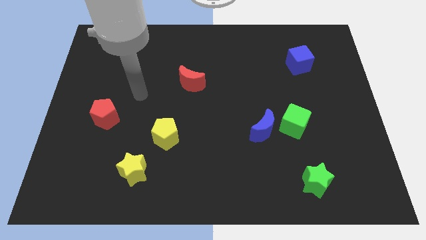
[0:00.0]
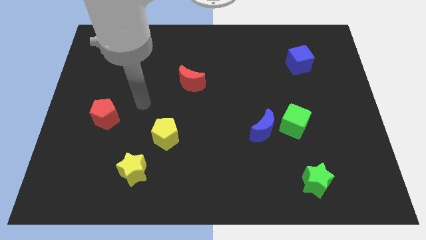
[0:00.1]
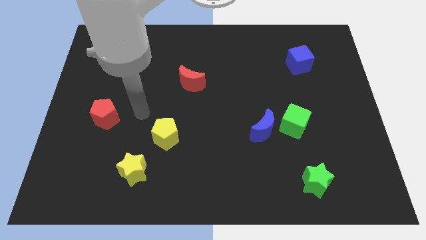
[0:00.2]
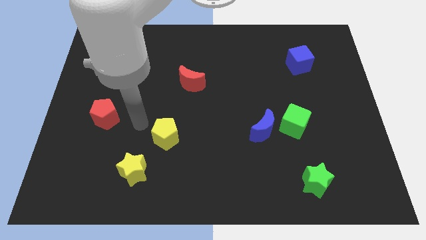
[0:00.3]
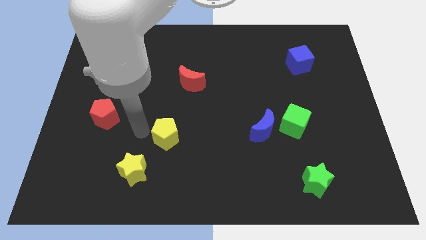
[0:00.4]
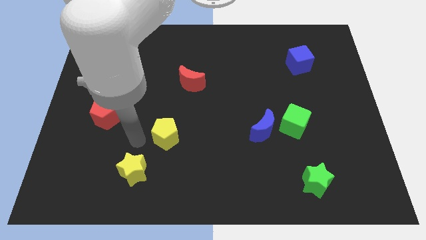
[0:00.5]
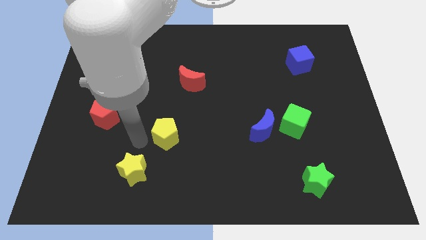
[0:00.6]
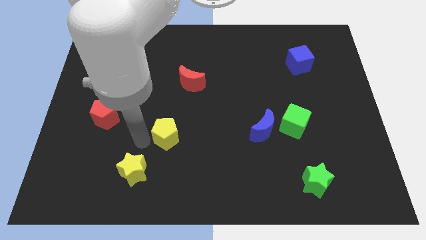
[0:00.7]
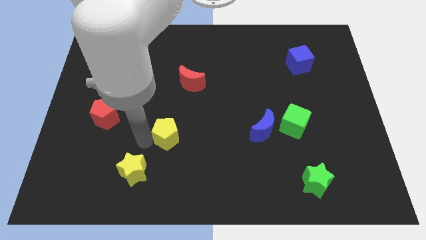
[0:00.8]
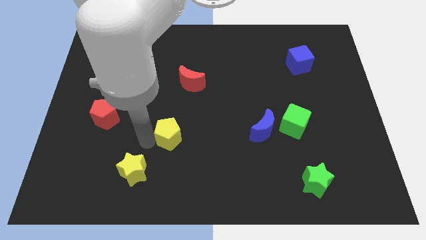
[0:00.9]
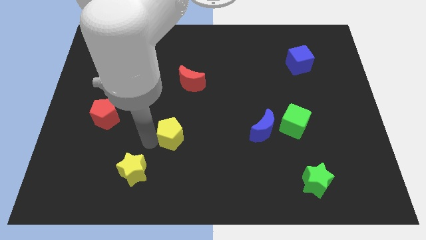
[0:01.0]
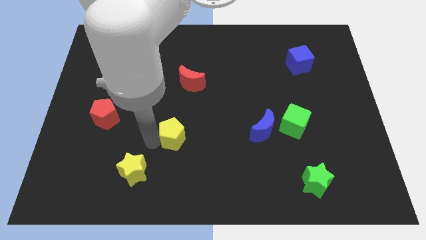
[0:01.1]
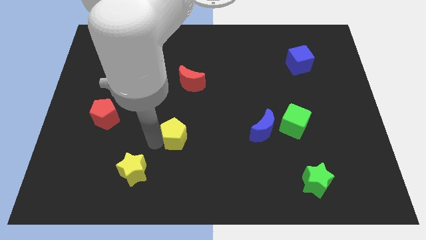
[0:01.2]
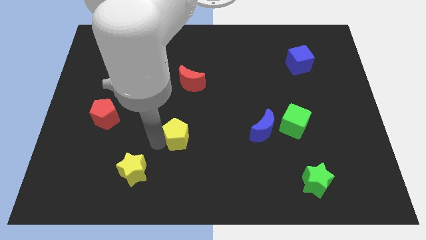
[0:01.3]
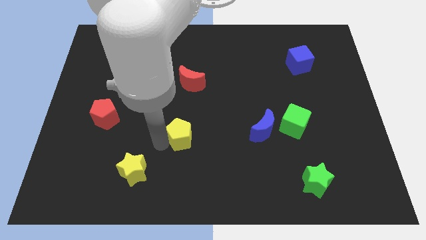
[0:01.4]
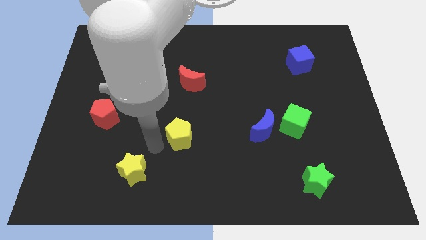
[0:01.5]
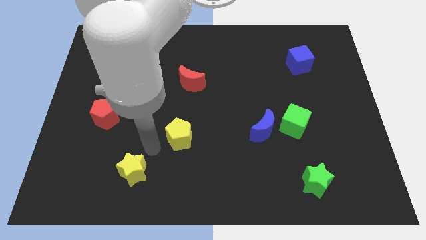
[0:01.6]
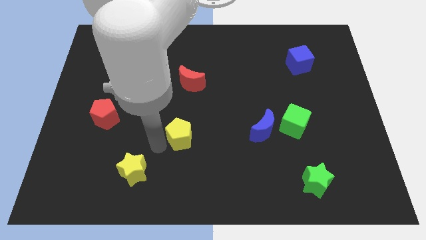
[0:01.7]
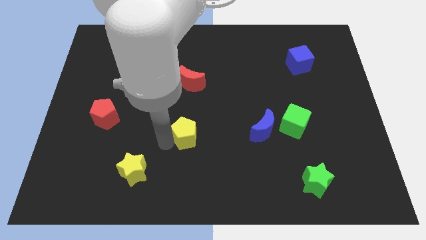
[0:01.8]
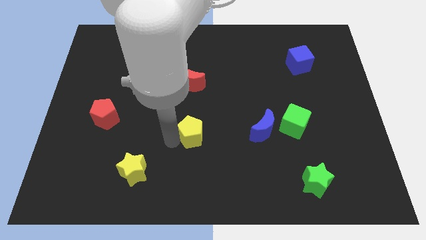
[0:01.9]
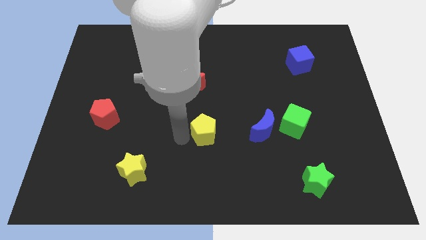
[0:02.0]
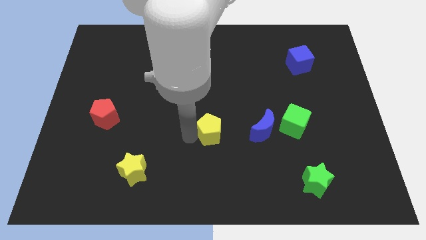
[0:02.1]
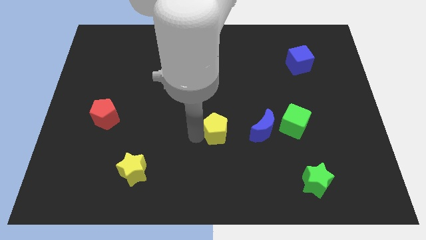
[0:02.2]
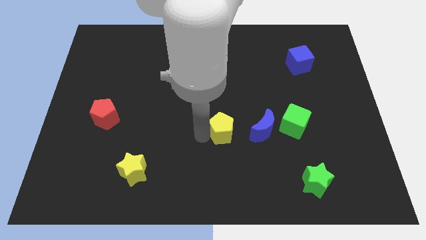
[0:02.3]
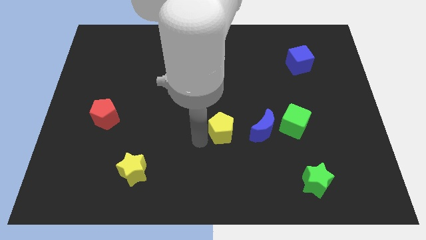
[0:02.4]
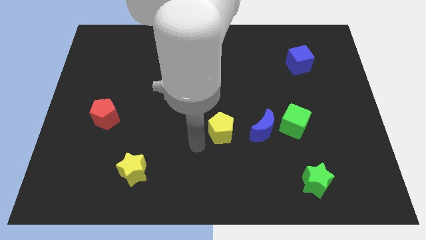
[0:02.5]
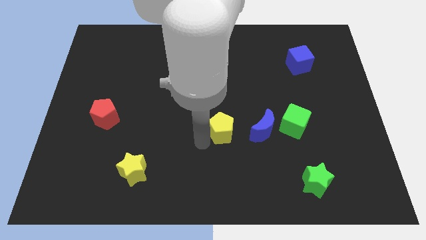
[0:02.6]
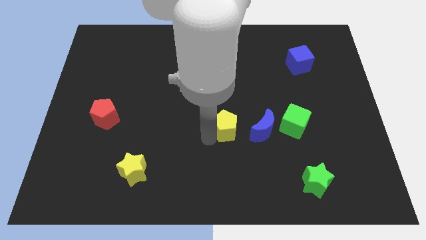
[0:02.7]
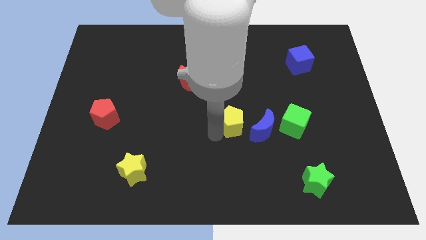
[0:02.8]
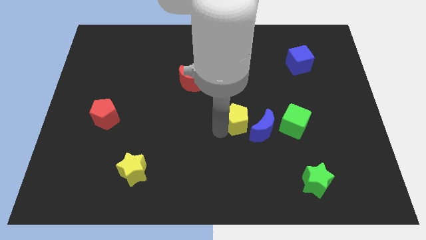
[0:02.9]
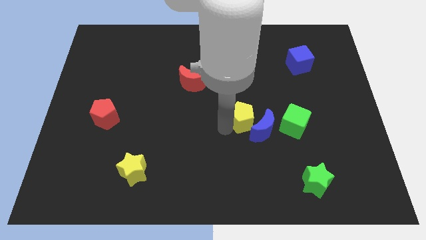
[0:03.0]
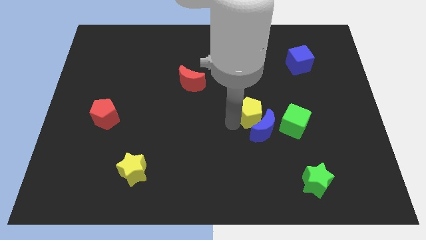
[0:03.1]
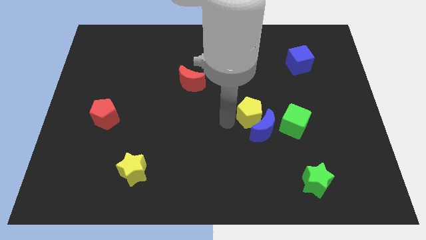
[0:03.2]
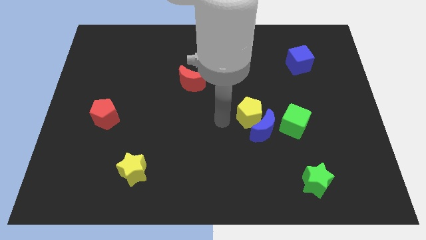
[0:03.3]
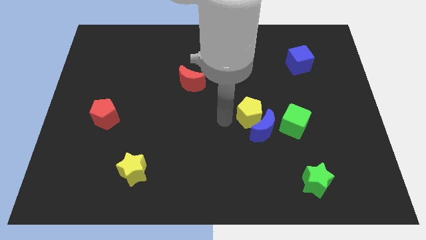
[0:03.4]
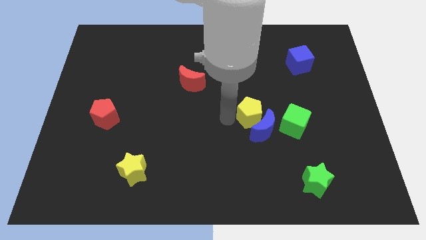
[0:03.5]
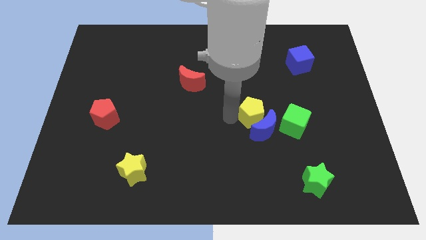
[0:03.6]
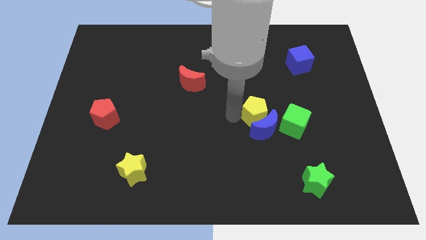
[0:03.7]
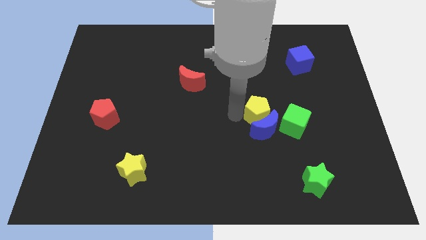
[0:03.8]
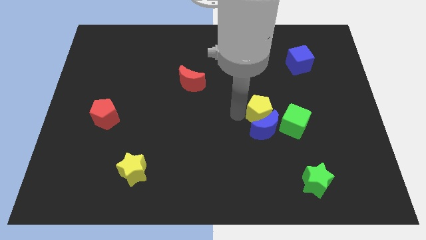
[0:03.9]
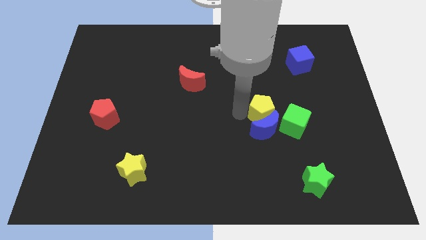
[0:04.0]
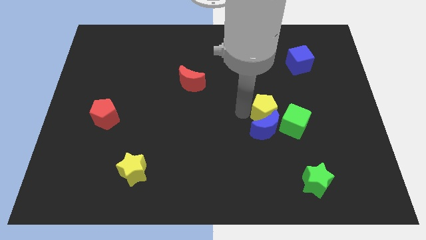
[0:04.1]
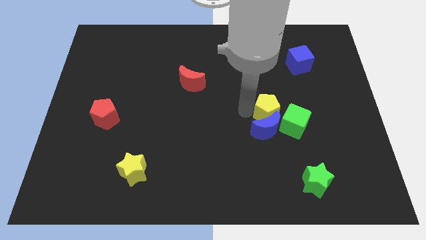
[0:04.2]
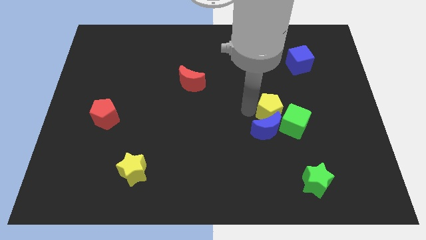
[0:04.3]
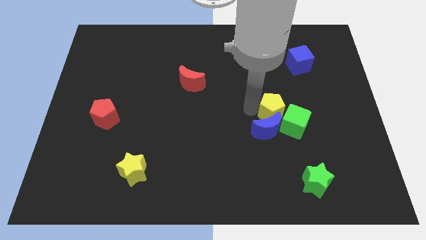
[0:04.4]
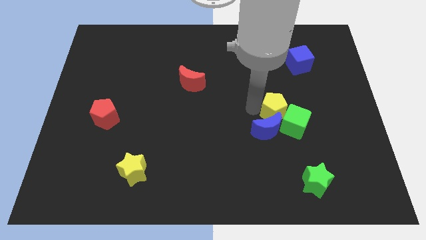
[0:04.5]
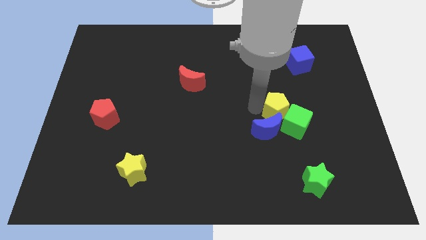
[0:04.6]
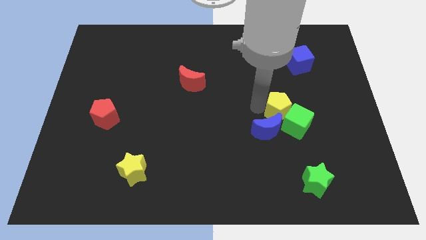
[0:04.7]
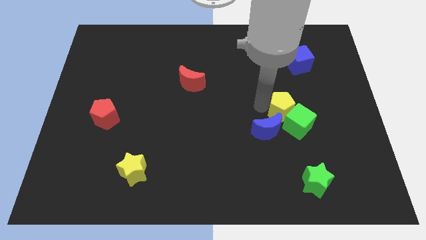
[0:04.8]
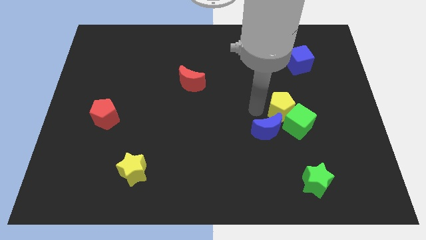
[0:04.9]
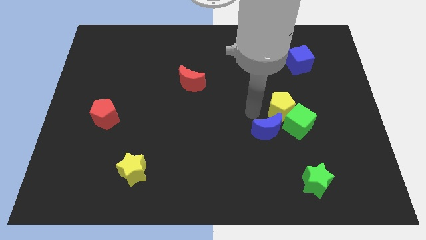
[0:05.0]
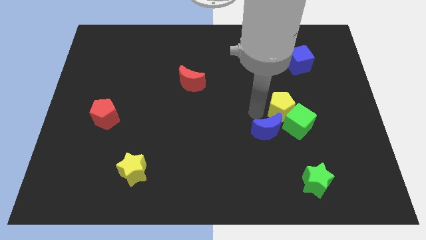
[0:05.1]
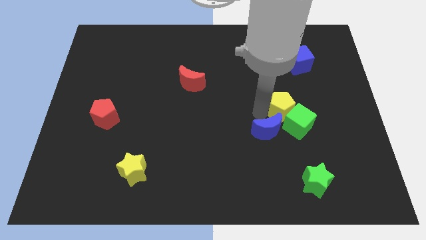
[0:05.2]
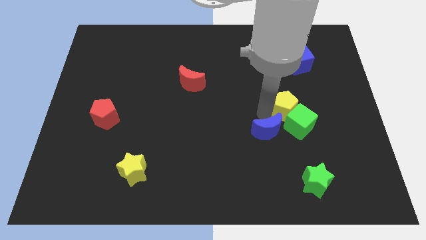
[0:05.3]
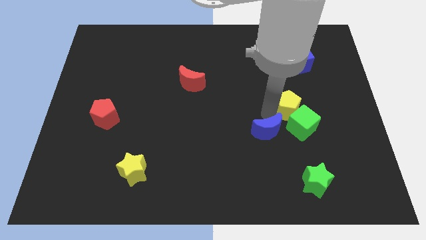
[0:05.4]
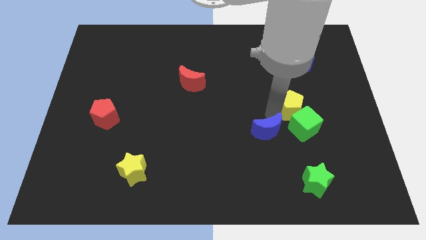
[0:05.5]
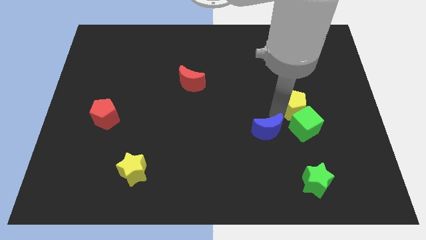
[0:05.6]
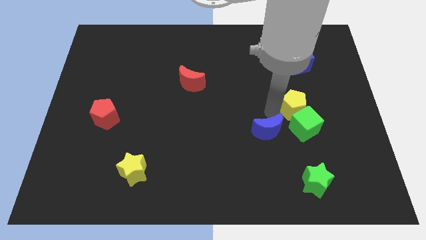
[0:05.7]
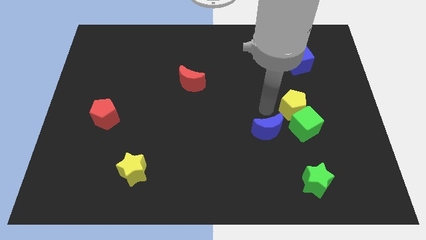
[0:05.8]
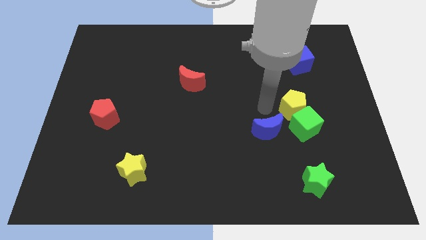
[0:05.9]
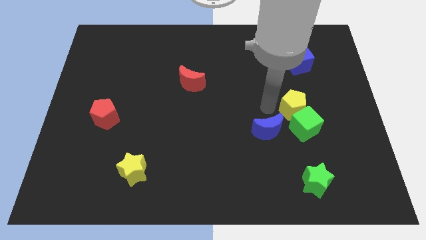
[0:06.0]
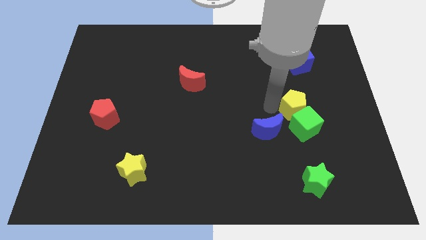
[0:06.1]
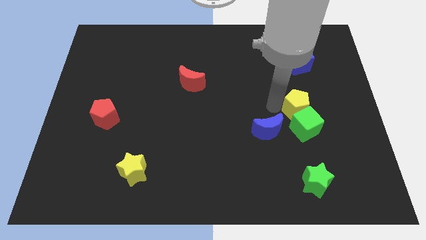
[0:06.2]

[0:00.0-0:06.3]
push the yellow pentagon to the top right of the green cube
